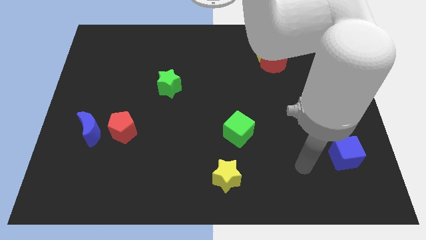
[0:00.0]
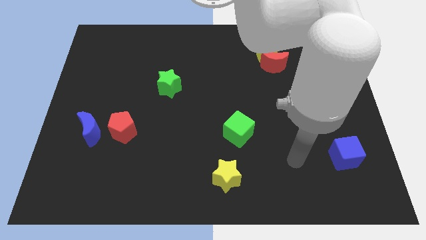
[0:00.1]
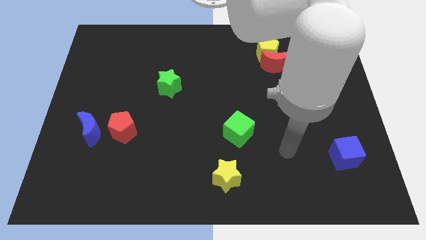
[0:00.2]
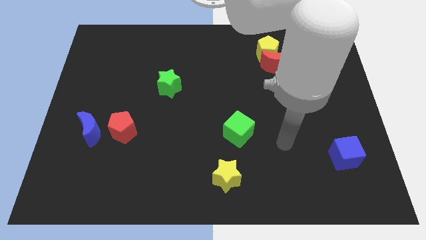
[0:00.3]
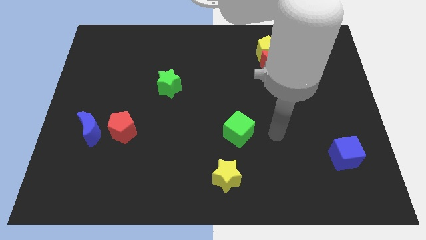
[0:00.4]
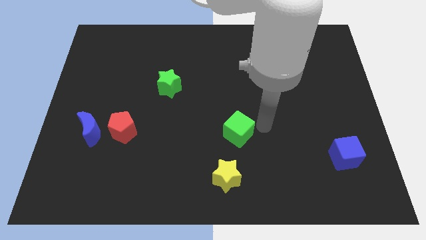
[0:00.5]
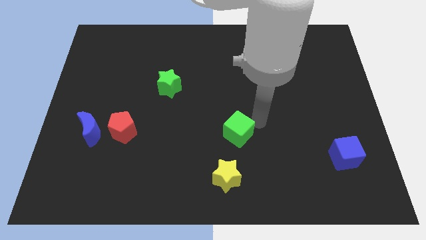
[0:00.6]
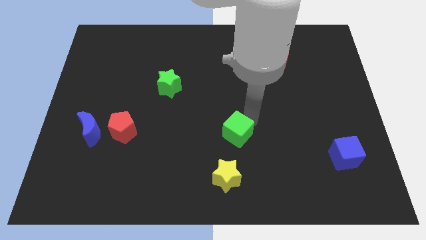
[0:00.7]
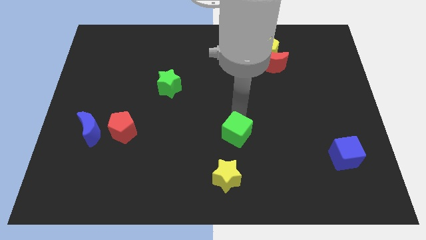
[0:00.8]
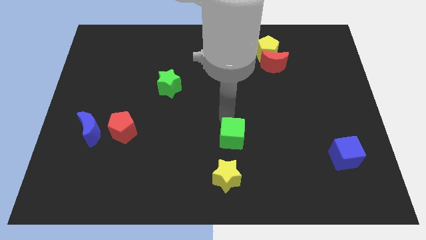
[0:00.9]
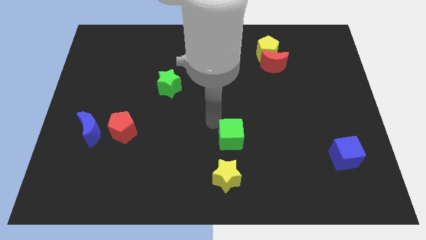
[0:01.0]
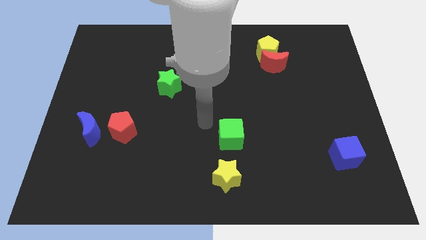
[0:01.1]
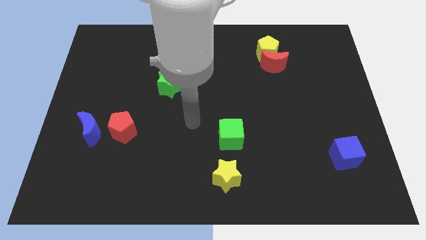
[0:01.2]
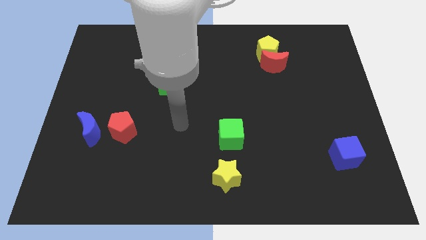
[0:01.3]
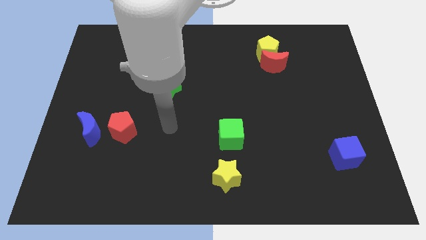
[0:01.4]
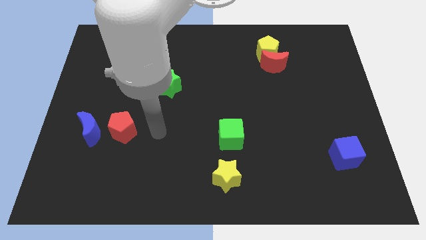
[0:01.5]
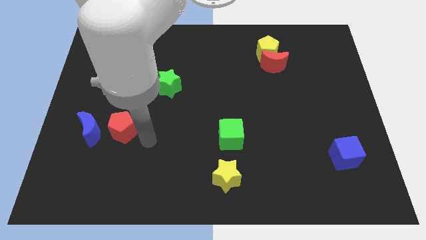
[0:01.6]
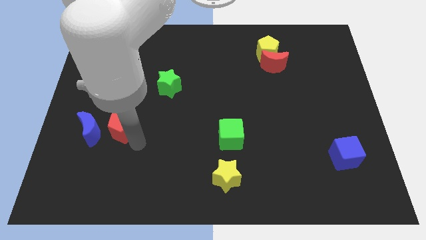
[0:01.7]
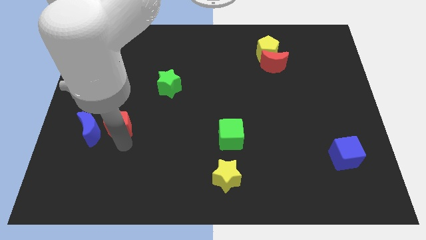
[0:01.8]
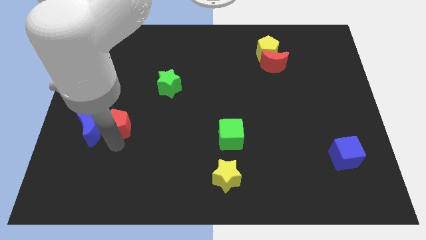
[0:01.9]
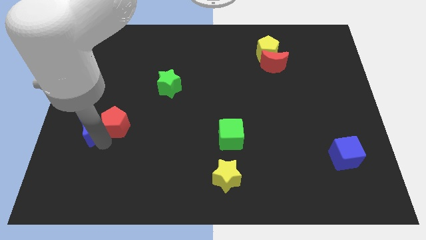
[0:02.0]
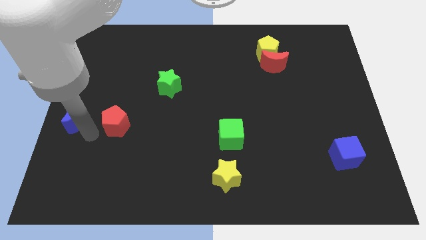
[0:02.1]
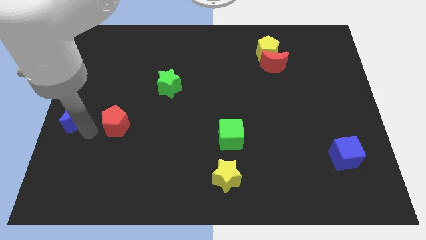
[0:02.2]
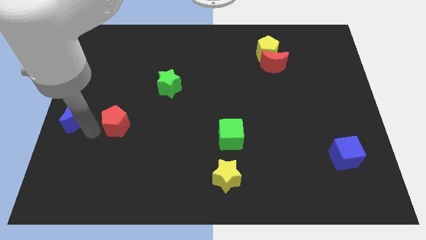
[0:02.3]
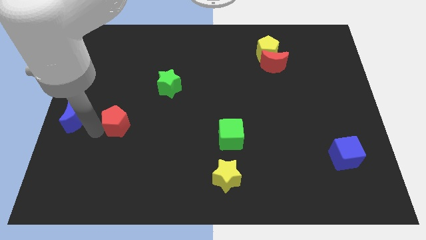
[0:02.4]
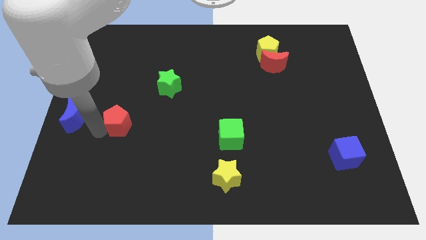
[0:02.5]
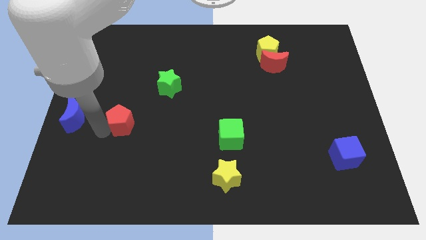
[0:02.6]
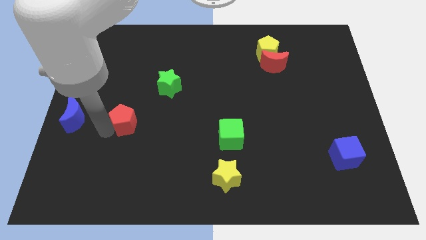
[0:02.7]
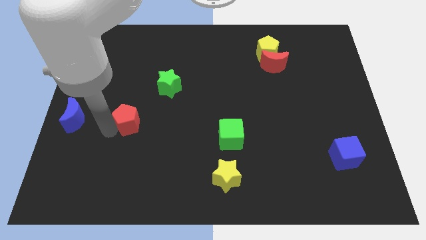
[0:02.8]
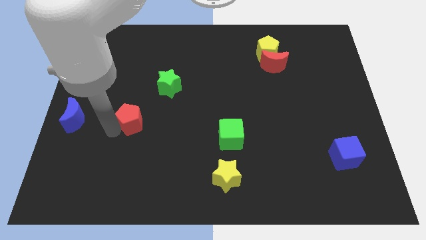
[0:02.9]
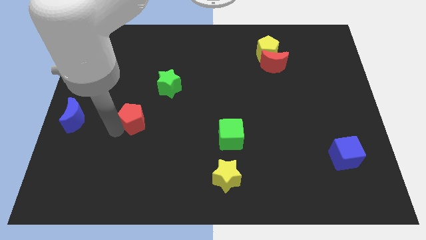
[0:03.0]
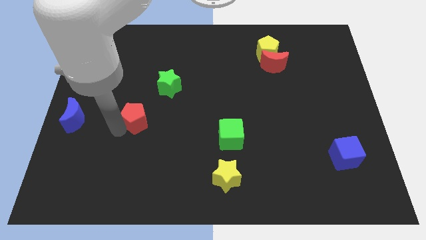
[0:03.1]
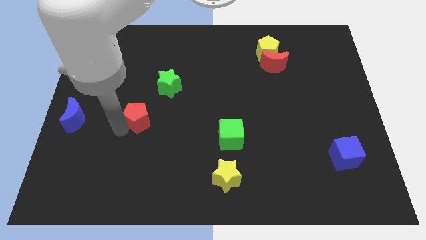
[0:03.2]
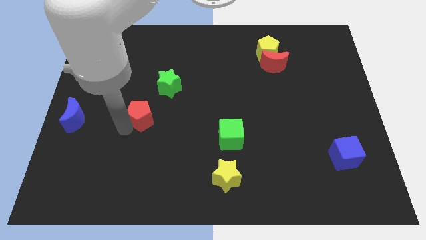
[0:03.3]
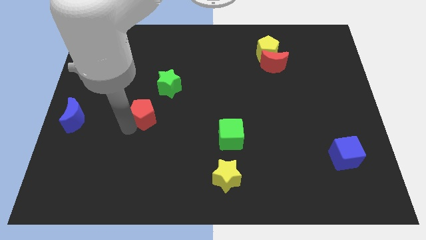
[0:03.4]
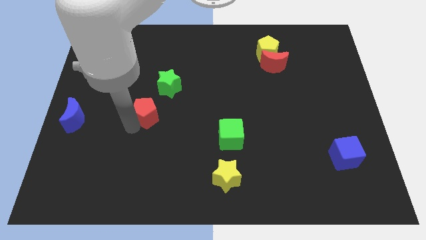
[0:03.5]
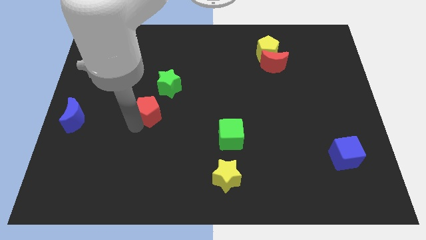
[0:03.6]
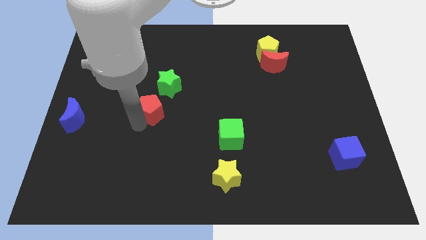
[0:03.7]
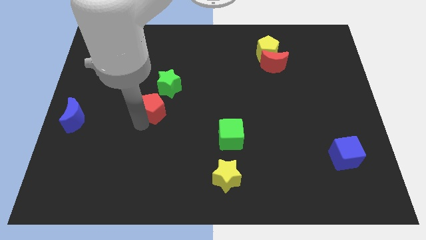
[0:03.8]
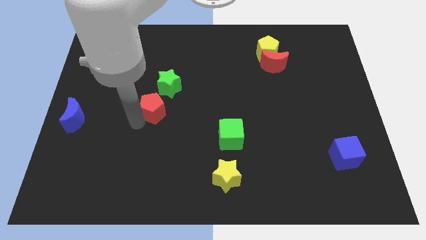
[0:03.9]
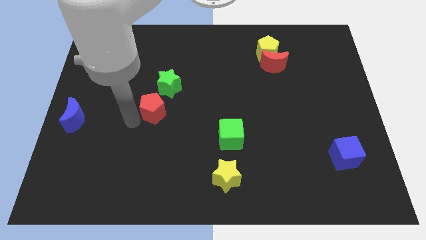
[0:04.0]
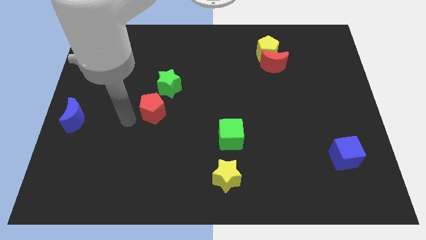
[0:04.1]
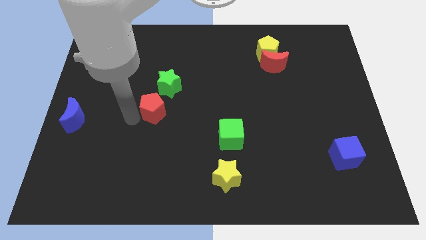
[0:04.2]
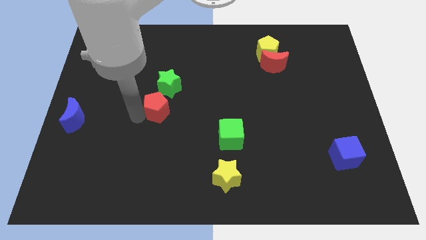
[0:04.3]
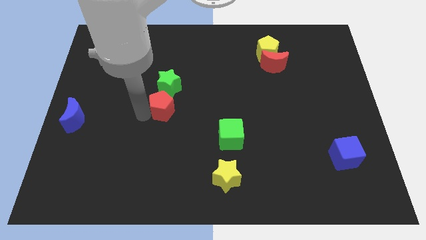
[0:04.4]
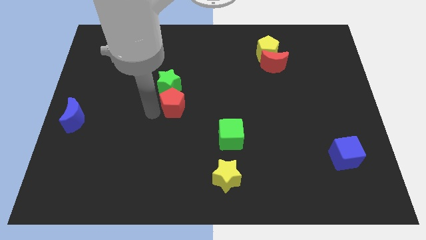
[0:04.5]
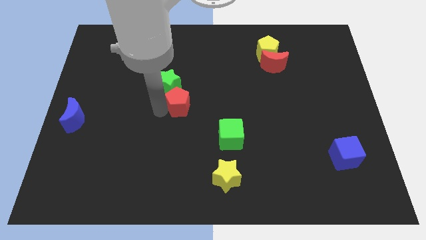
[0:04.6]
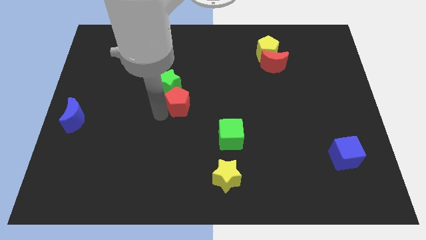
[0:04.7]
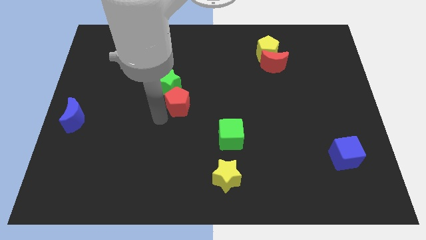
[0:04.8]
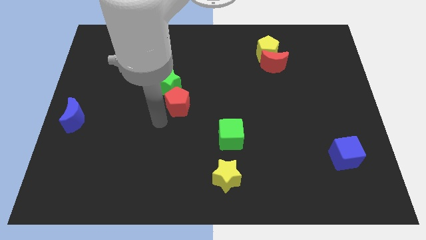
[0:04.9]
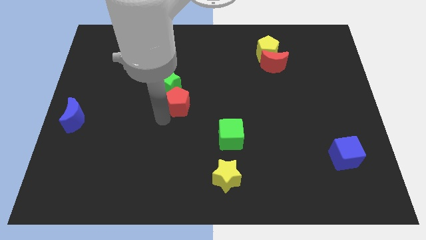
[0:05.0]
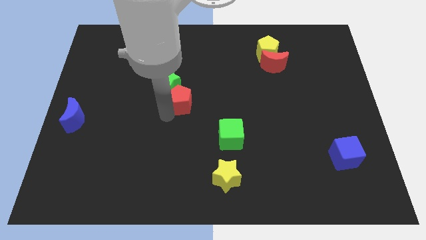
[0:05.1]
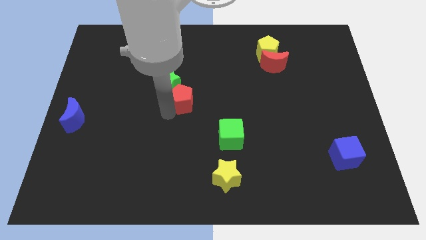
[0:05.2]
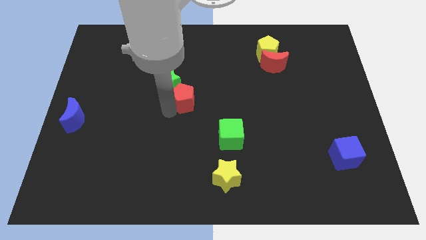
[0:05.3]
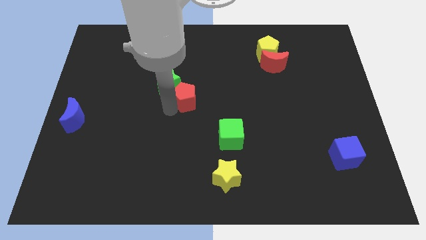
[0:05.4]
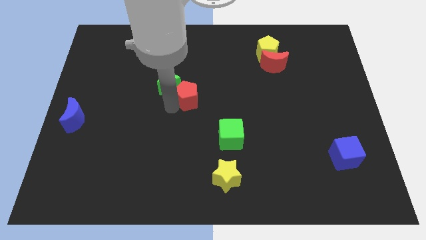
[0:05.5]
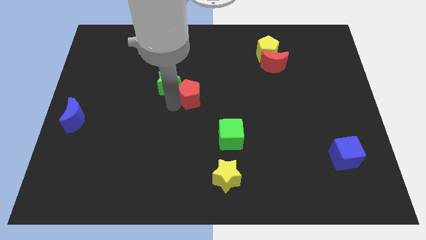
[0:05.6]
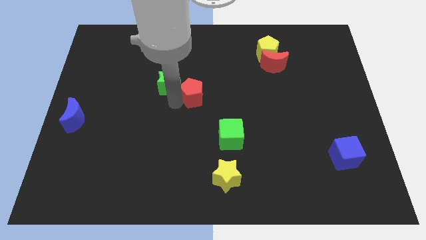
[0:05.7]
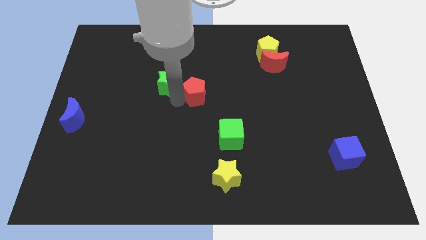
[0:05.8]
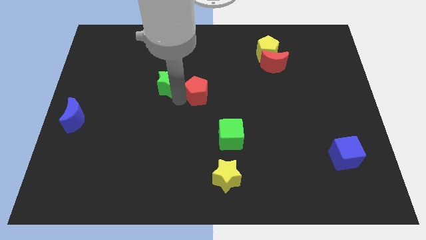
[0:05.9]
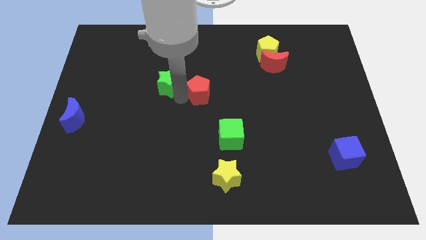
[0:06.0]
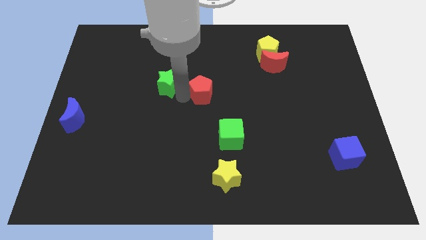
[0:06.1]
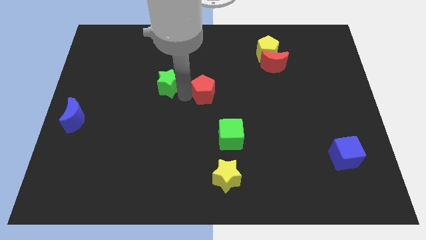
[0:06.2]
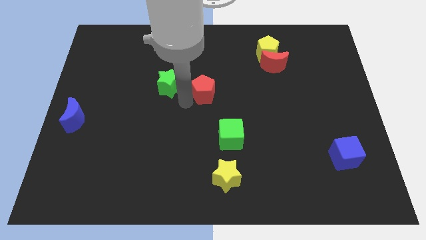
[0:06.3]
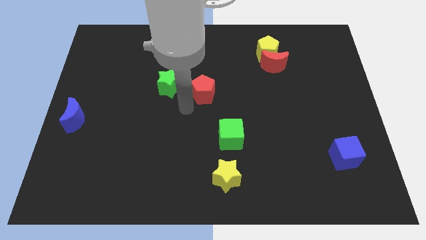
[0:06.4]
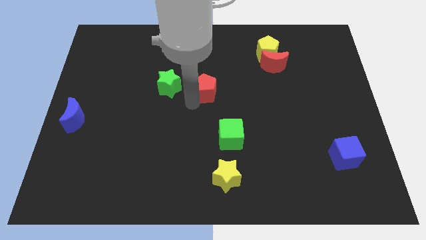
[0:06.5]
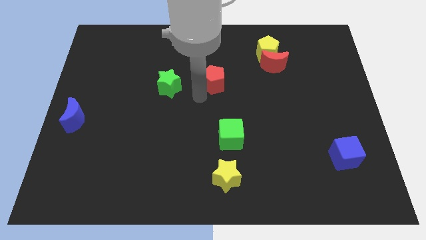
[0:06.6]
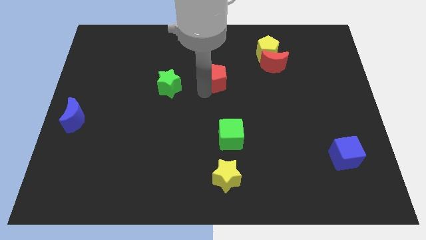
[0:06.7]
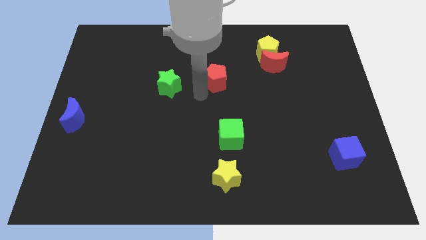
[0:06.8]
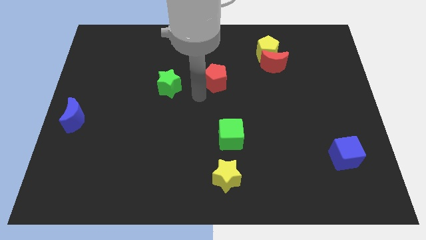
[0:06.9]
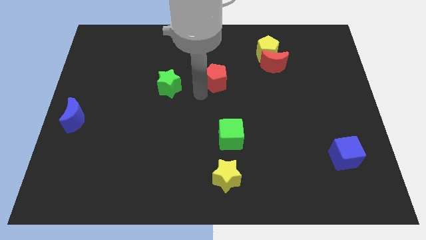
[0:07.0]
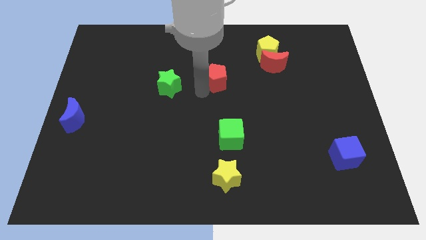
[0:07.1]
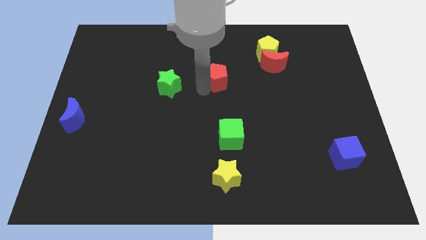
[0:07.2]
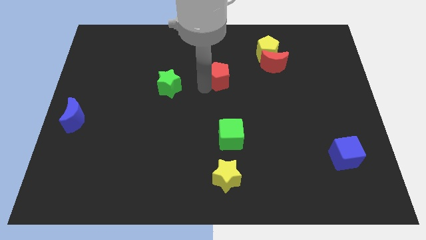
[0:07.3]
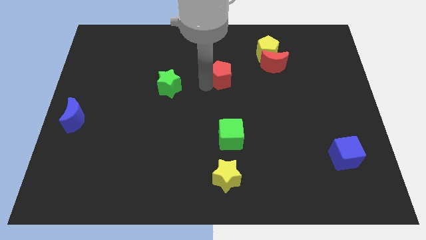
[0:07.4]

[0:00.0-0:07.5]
move the red pentagon left of the red moon

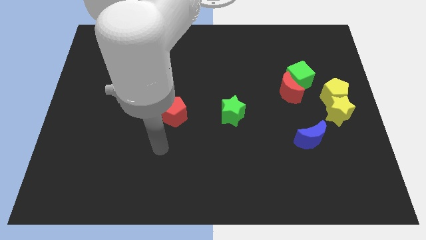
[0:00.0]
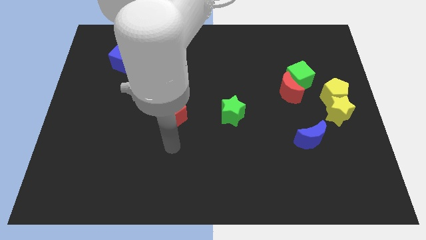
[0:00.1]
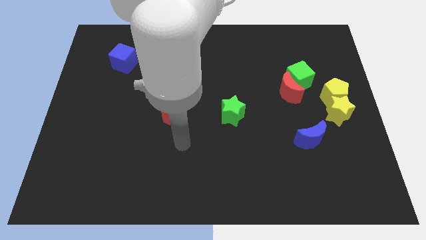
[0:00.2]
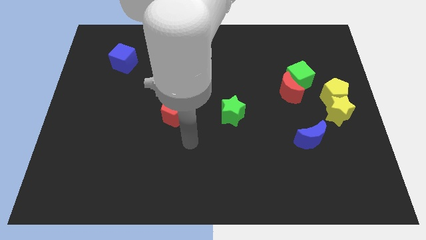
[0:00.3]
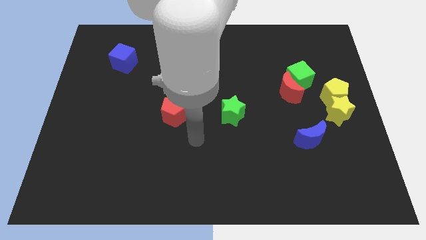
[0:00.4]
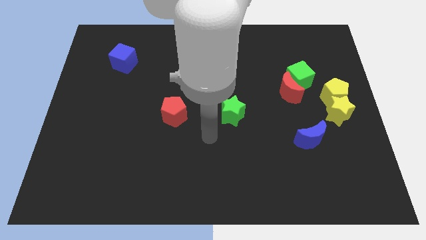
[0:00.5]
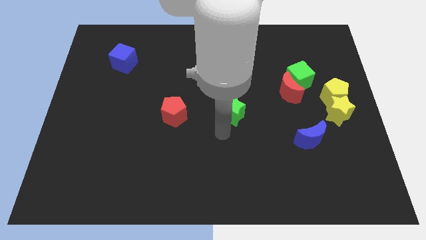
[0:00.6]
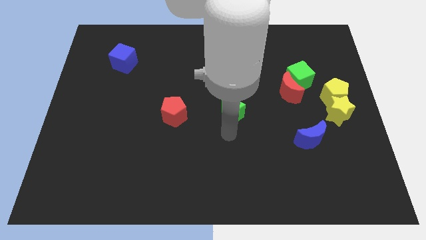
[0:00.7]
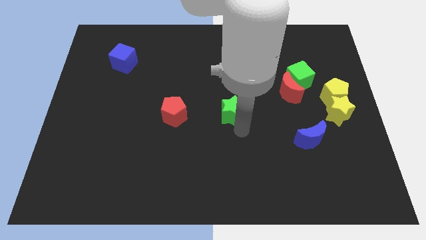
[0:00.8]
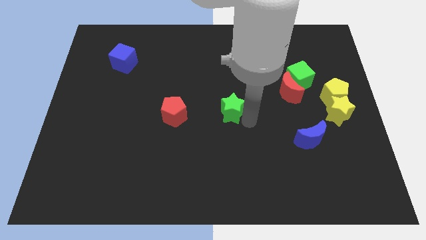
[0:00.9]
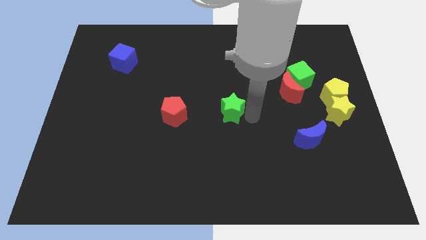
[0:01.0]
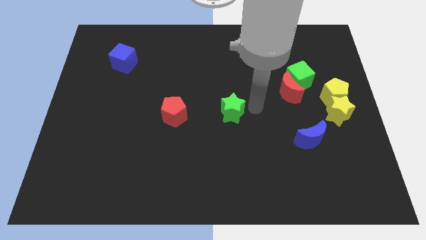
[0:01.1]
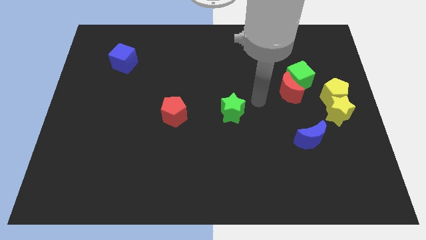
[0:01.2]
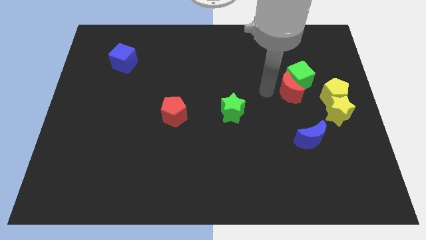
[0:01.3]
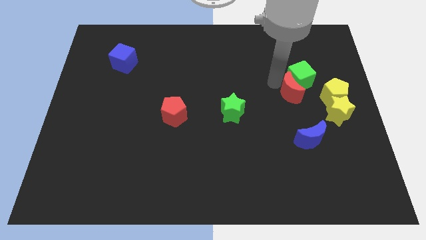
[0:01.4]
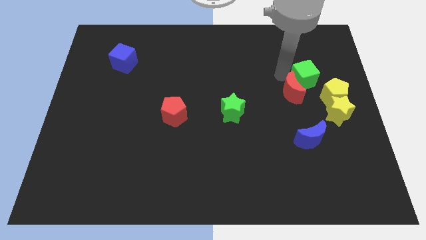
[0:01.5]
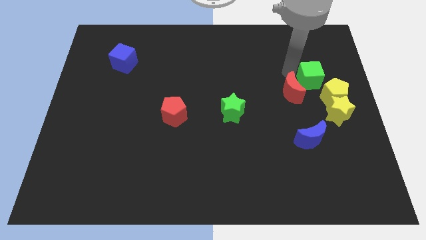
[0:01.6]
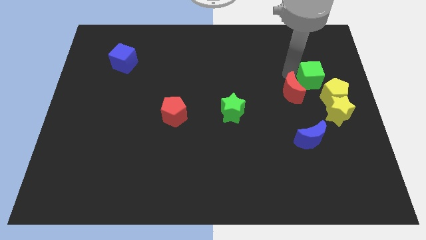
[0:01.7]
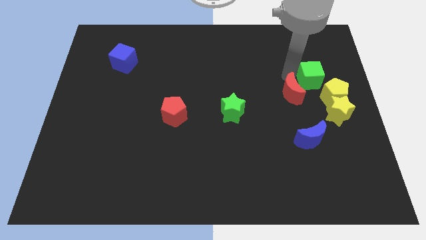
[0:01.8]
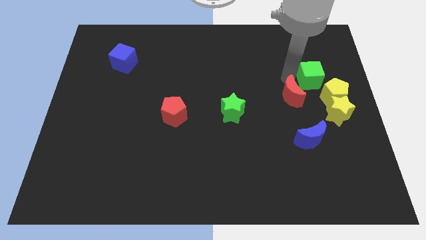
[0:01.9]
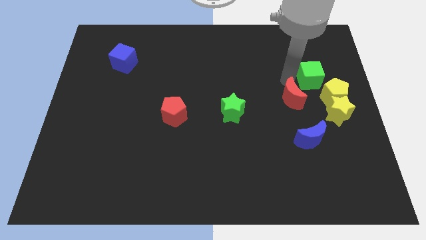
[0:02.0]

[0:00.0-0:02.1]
push the red moon left of the yellow star
